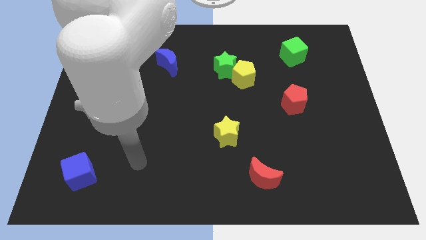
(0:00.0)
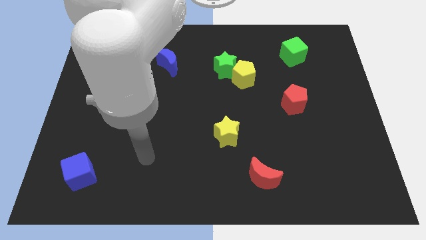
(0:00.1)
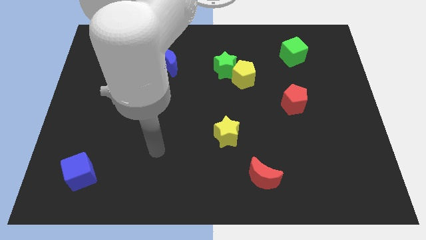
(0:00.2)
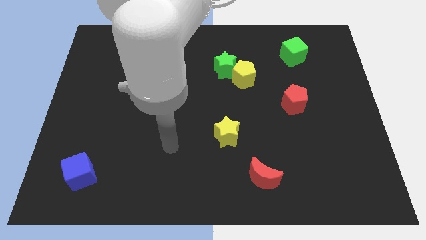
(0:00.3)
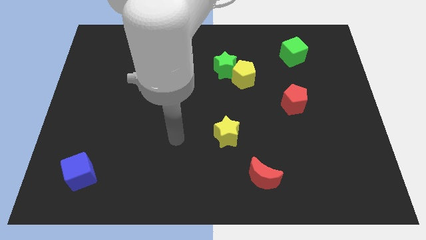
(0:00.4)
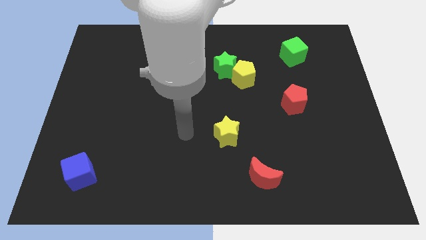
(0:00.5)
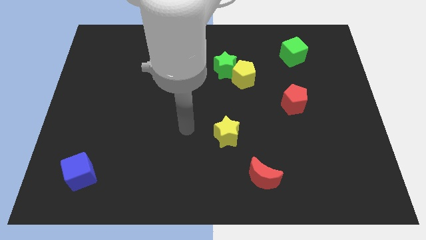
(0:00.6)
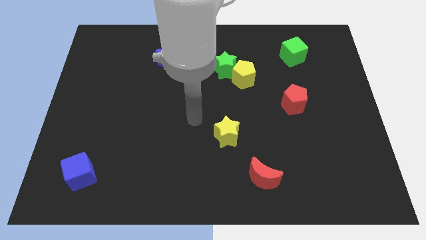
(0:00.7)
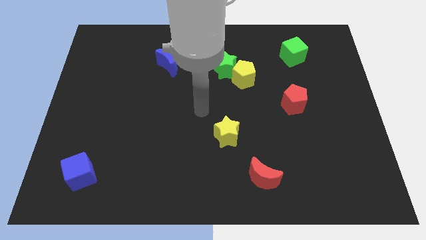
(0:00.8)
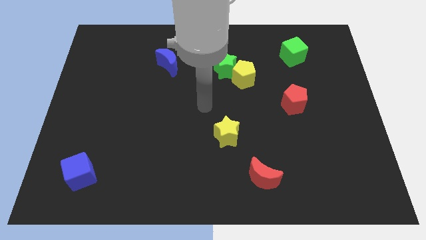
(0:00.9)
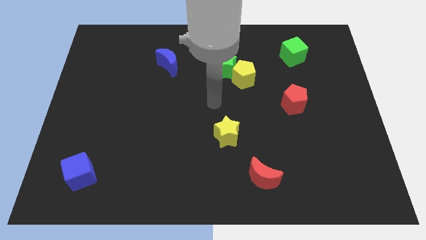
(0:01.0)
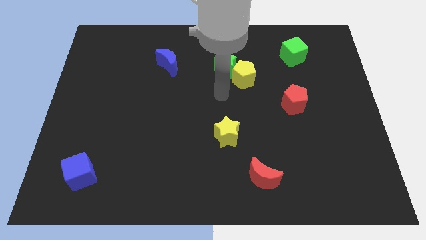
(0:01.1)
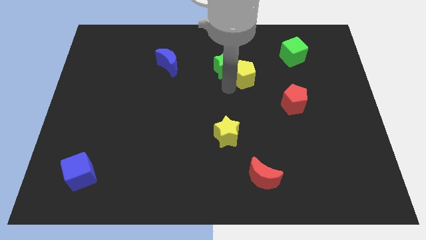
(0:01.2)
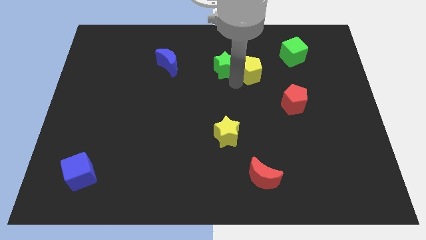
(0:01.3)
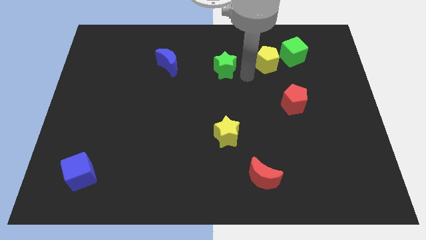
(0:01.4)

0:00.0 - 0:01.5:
pull the green star apart from the yellow pentagon

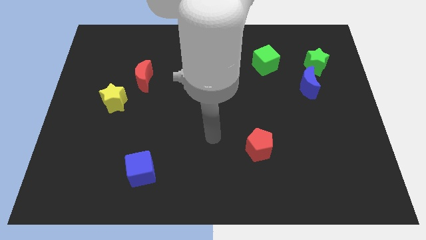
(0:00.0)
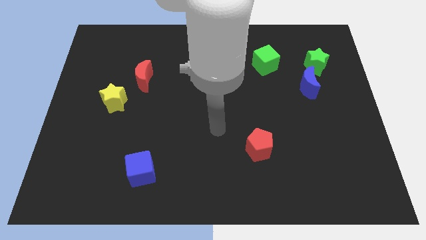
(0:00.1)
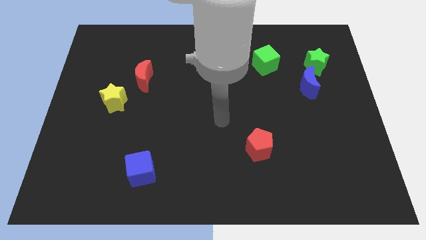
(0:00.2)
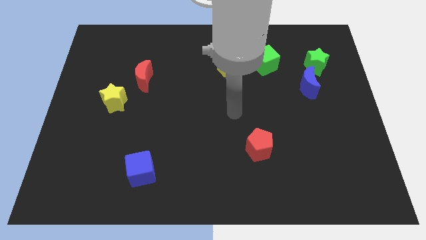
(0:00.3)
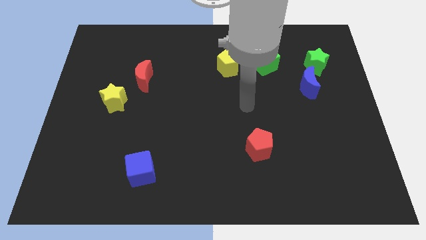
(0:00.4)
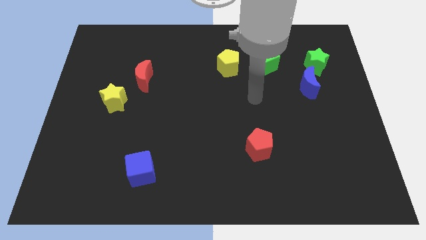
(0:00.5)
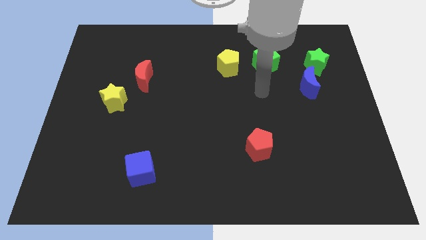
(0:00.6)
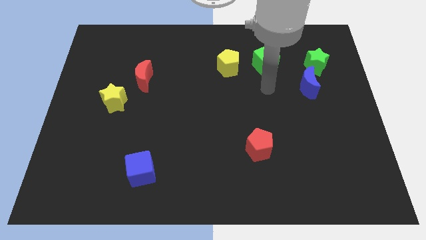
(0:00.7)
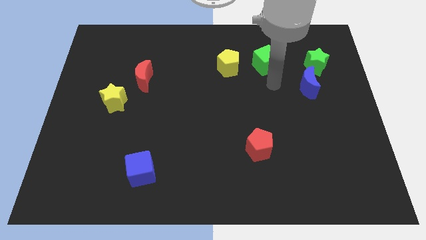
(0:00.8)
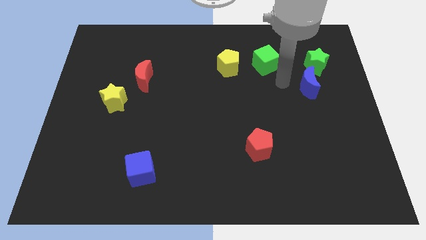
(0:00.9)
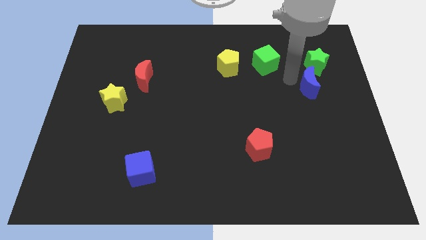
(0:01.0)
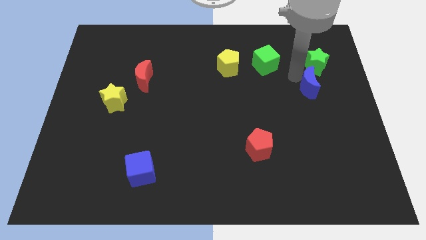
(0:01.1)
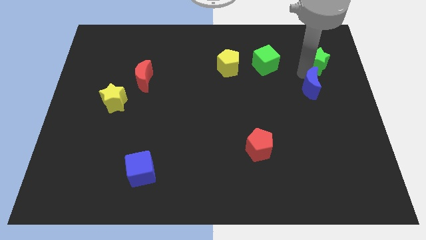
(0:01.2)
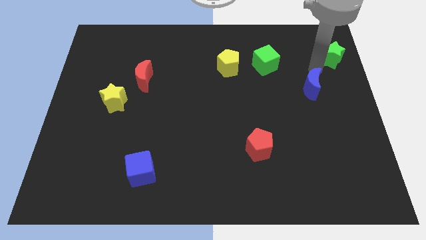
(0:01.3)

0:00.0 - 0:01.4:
separate the blue moon from the green star

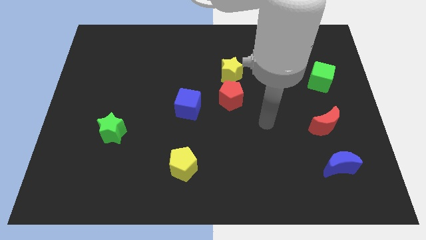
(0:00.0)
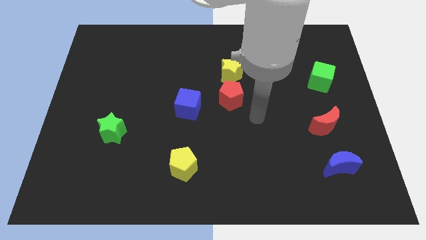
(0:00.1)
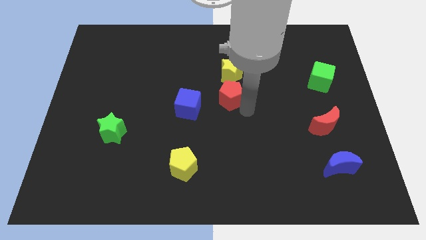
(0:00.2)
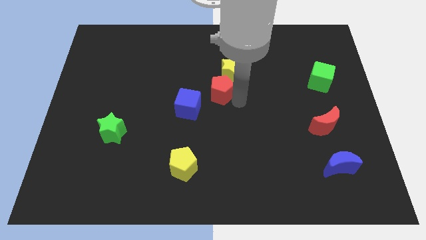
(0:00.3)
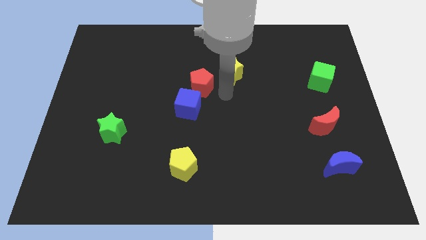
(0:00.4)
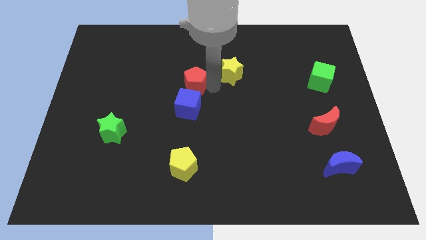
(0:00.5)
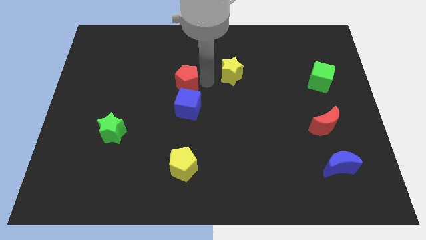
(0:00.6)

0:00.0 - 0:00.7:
pull the yellow star apart from the red pentagon

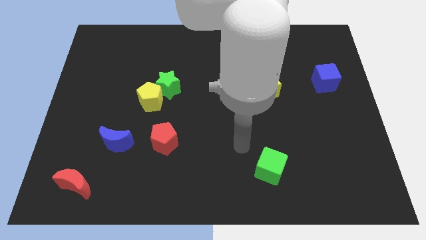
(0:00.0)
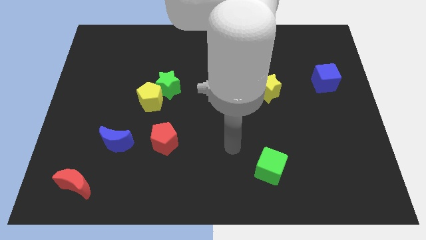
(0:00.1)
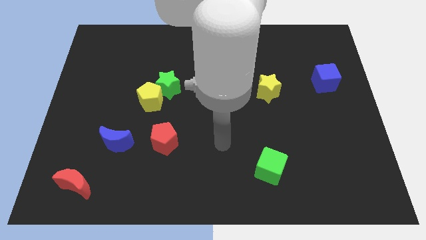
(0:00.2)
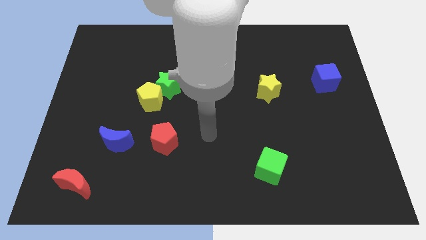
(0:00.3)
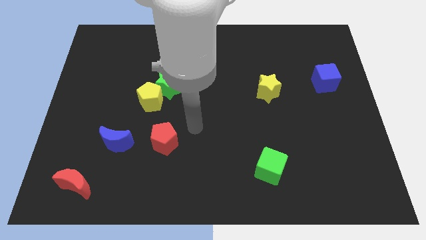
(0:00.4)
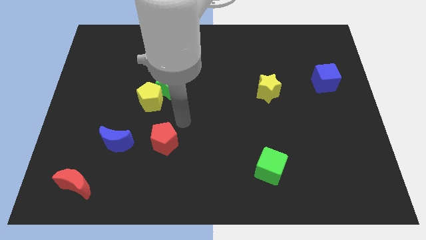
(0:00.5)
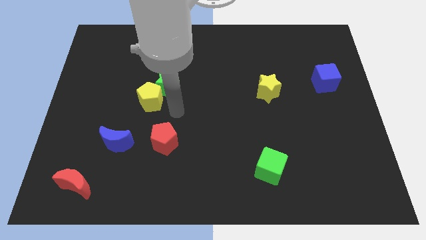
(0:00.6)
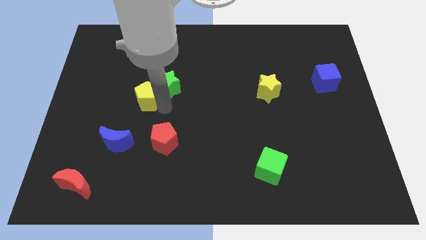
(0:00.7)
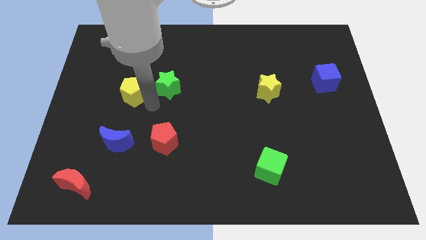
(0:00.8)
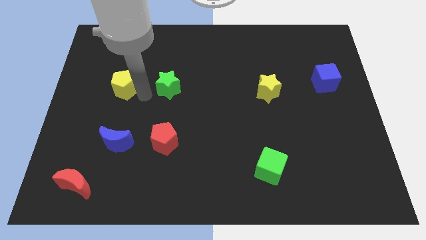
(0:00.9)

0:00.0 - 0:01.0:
move the green star away from the yellow pentagon

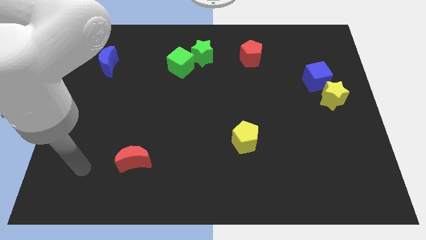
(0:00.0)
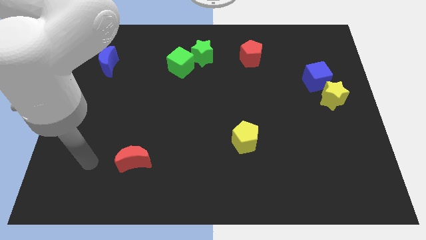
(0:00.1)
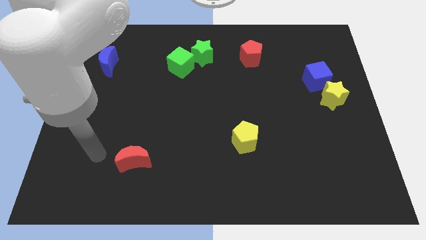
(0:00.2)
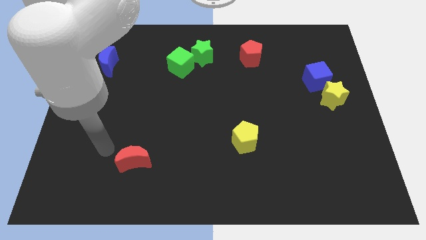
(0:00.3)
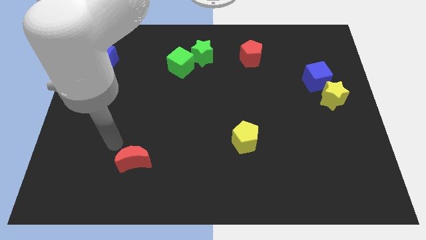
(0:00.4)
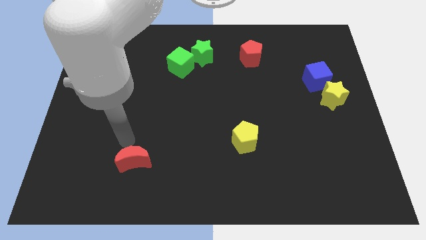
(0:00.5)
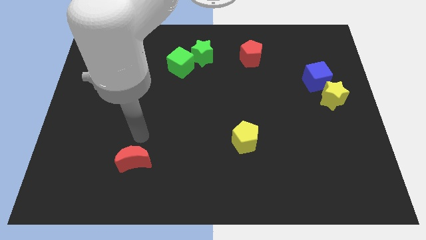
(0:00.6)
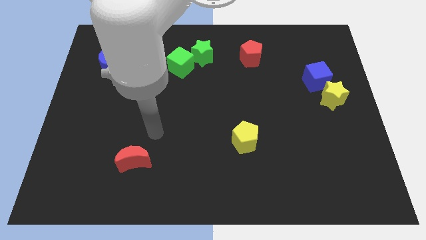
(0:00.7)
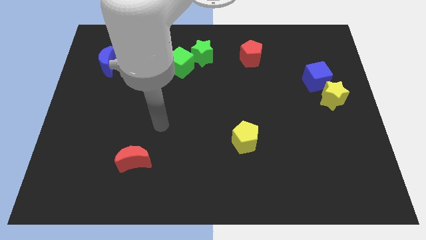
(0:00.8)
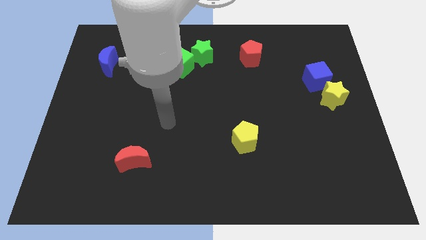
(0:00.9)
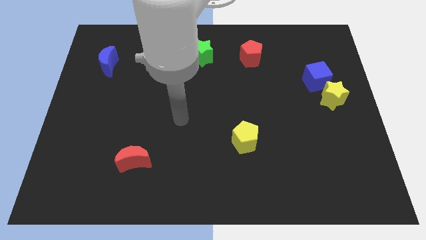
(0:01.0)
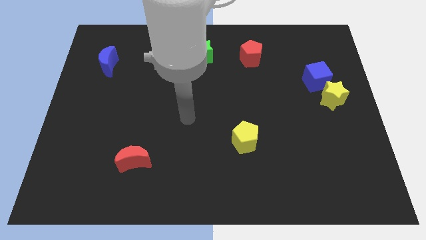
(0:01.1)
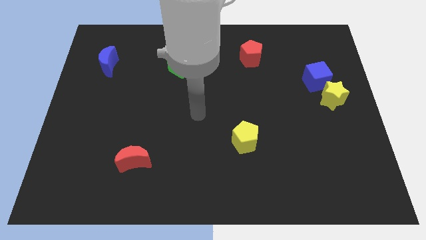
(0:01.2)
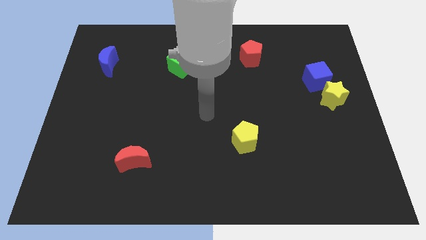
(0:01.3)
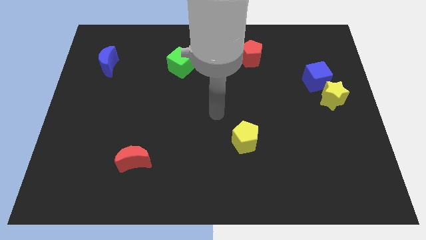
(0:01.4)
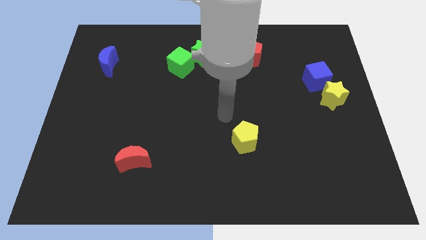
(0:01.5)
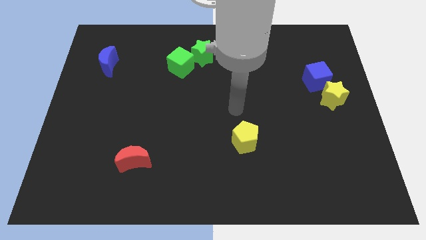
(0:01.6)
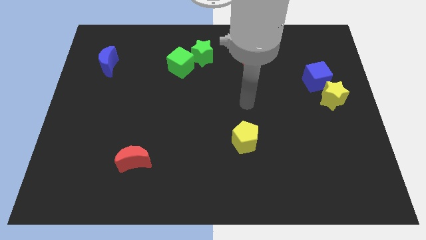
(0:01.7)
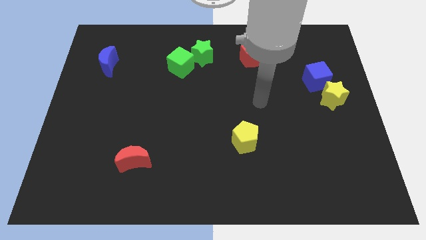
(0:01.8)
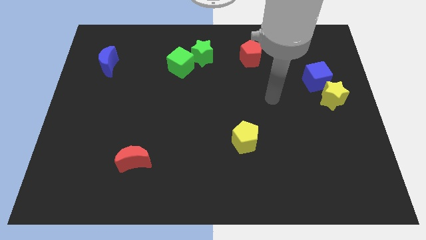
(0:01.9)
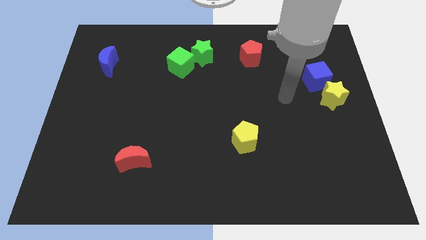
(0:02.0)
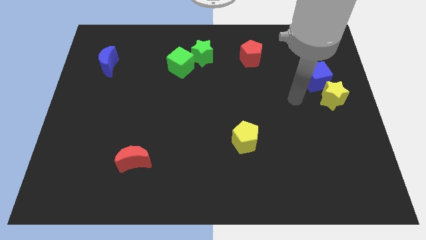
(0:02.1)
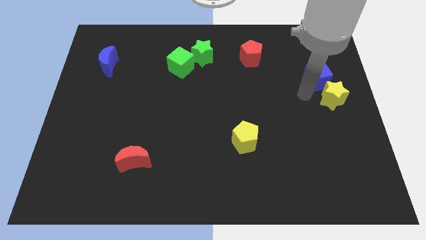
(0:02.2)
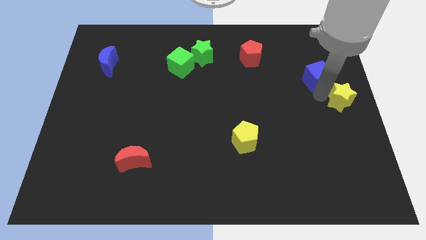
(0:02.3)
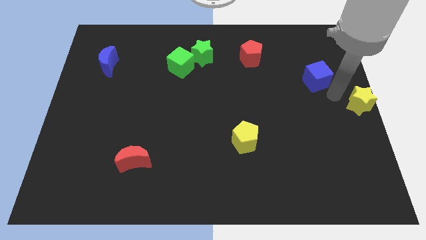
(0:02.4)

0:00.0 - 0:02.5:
separate the blue cube from the yellow star

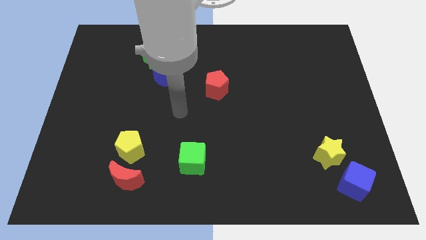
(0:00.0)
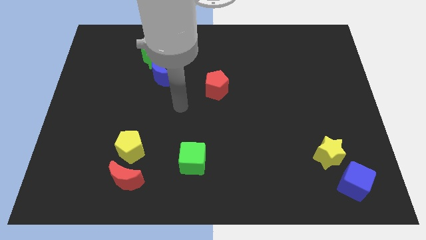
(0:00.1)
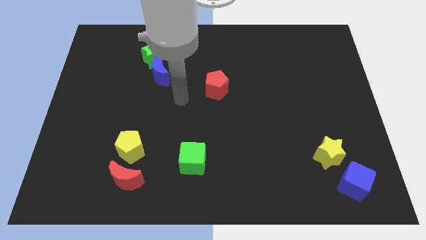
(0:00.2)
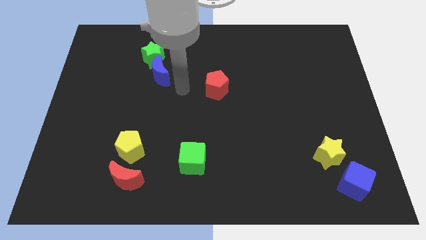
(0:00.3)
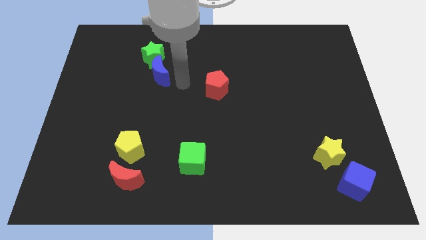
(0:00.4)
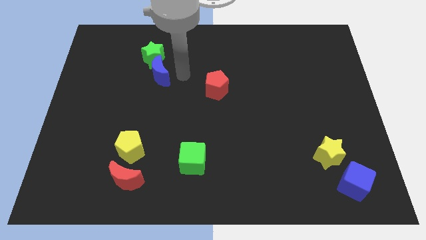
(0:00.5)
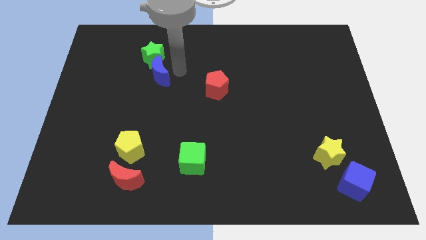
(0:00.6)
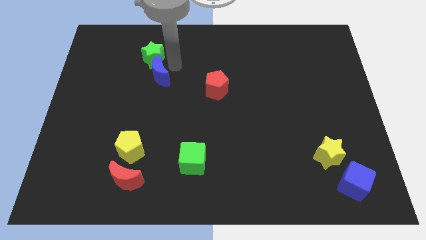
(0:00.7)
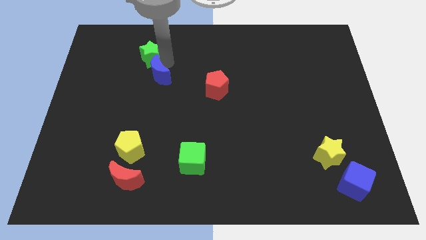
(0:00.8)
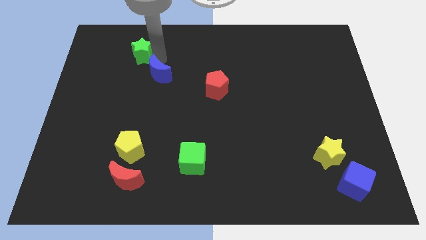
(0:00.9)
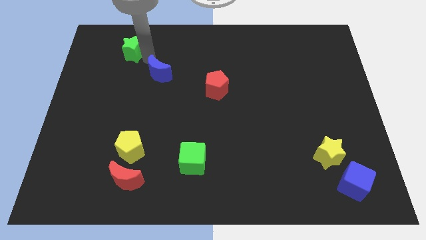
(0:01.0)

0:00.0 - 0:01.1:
pull the blue moon apart from the green star

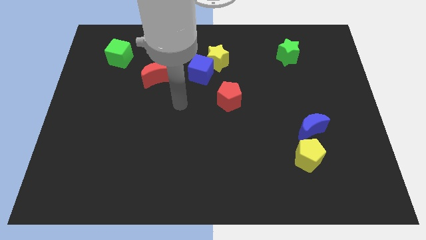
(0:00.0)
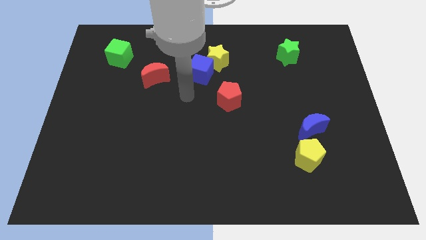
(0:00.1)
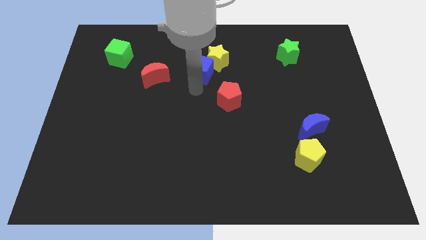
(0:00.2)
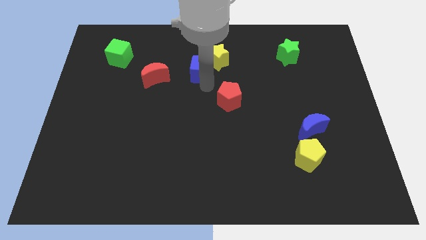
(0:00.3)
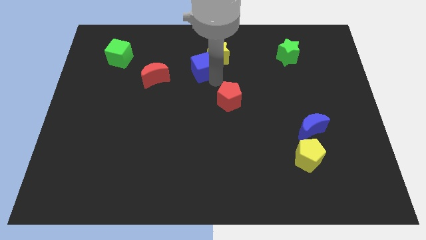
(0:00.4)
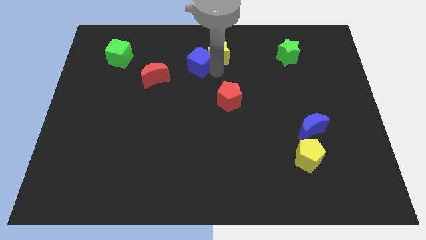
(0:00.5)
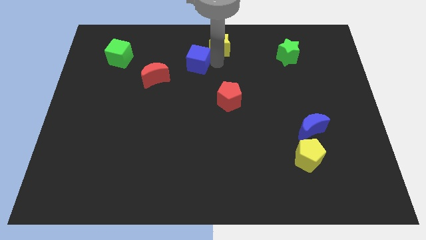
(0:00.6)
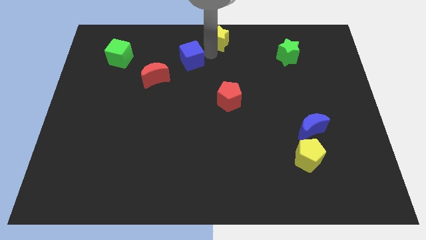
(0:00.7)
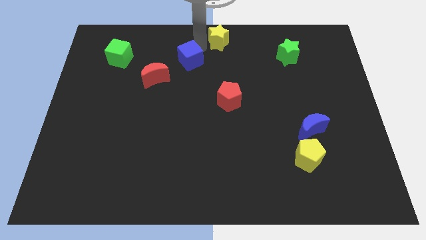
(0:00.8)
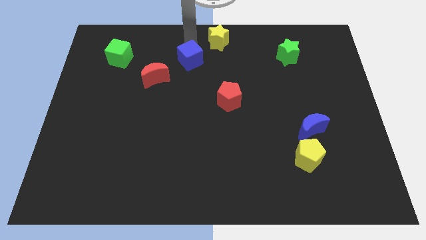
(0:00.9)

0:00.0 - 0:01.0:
move the blue cube away from the yellow star
